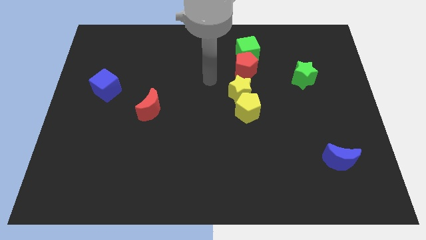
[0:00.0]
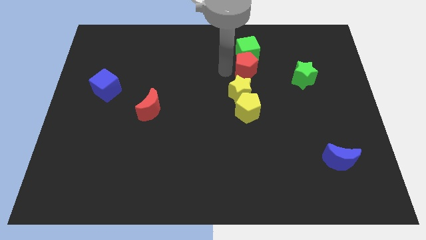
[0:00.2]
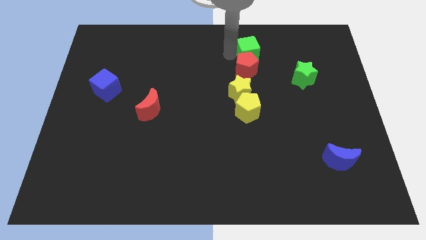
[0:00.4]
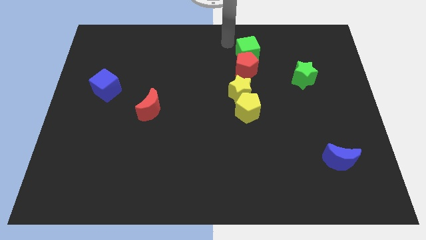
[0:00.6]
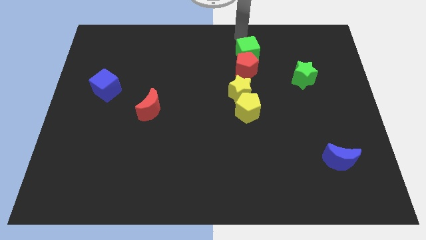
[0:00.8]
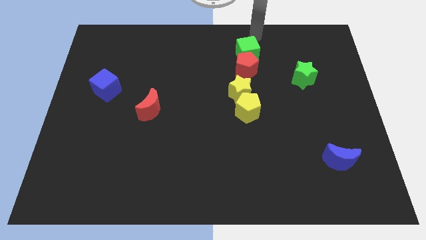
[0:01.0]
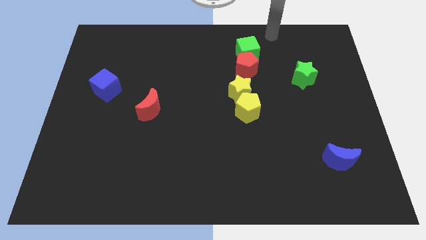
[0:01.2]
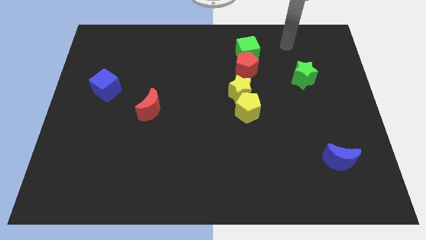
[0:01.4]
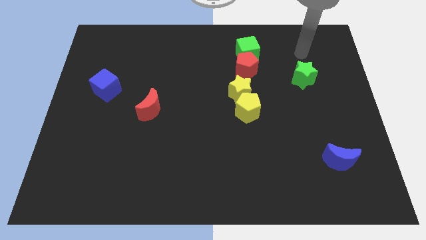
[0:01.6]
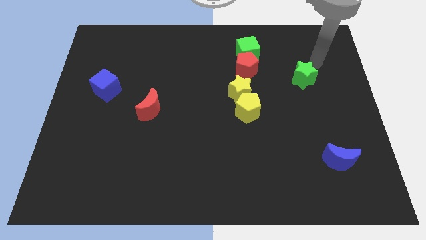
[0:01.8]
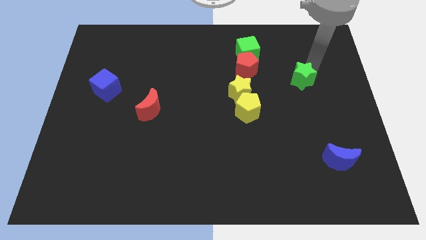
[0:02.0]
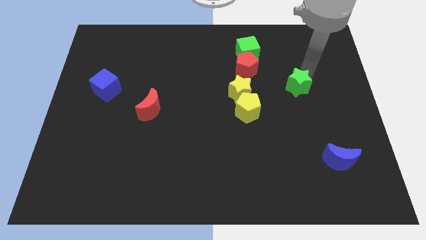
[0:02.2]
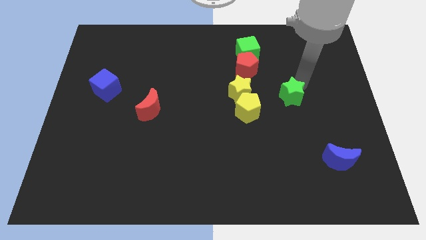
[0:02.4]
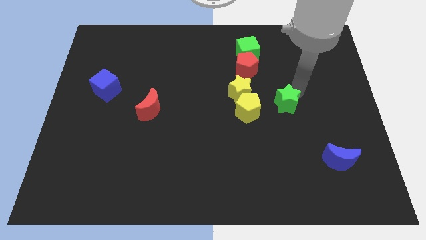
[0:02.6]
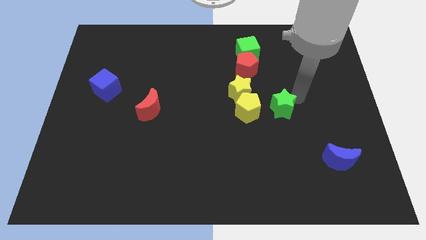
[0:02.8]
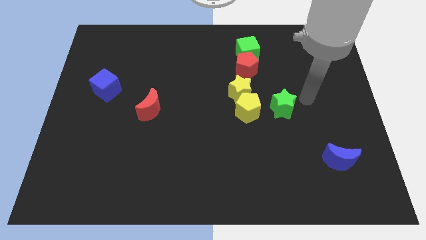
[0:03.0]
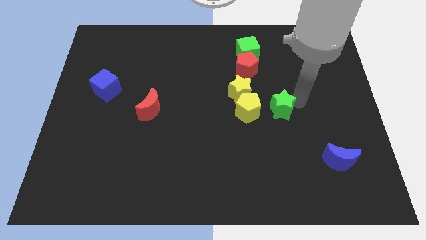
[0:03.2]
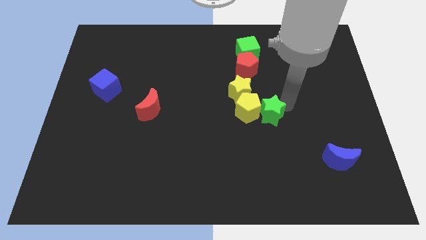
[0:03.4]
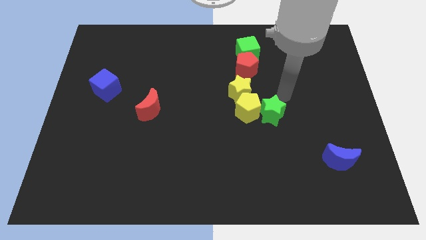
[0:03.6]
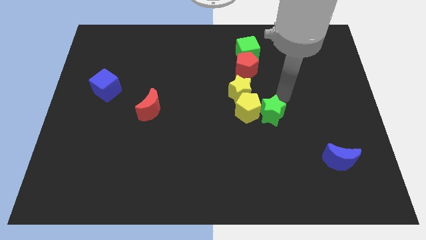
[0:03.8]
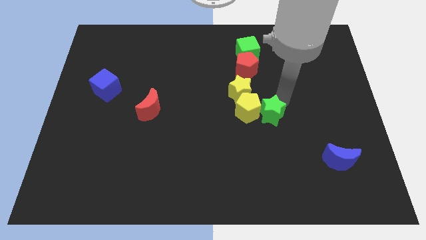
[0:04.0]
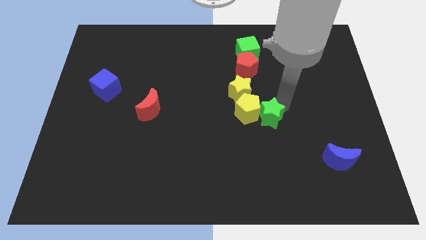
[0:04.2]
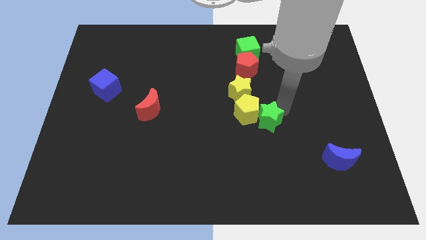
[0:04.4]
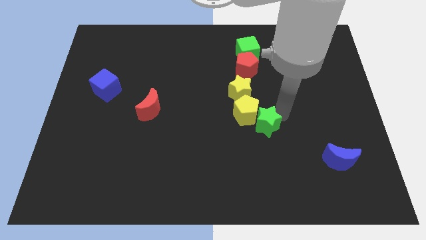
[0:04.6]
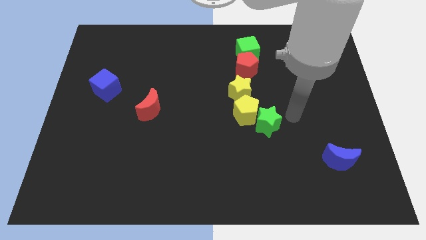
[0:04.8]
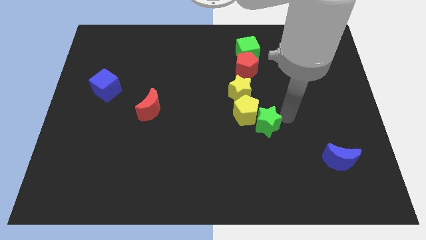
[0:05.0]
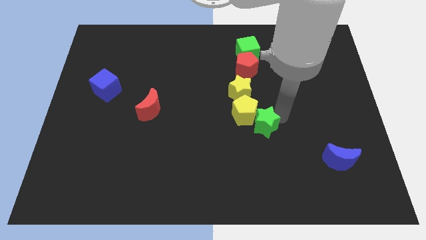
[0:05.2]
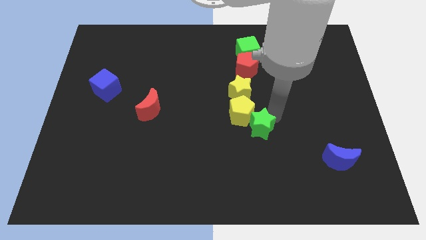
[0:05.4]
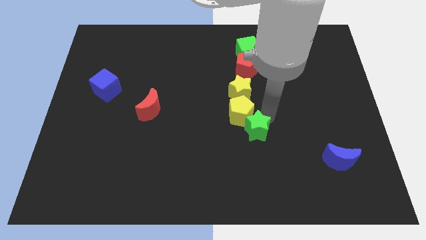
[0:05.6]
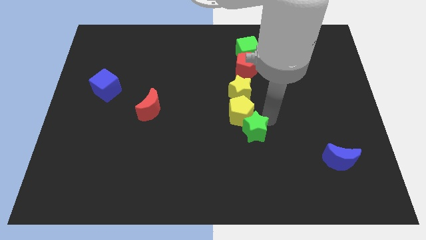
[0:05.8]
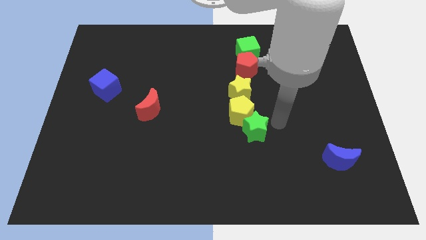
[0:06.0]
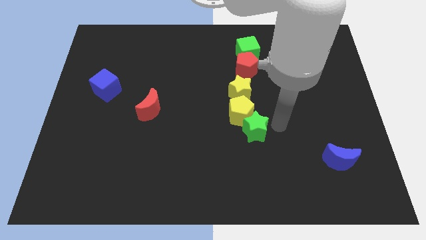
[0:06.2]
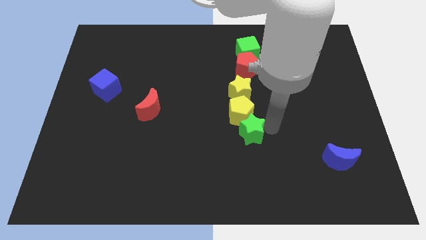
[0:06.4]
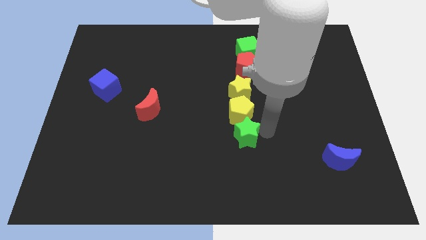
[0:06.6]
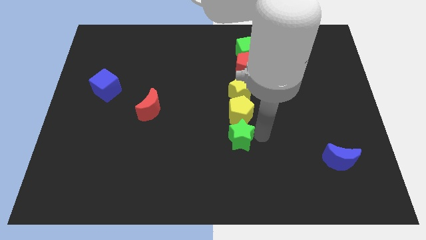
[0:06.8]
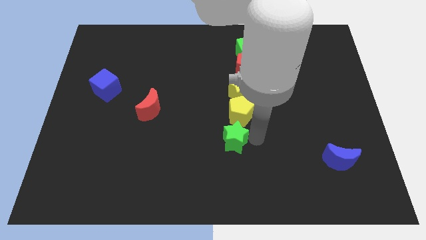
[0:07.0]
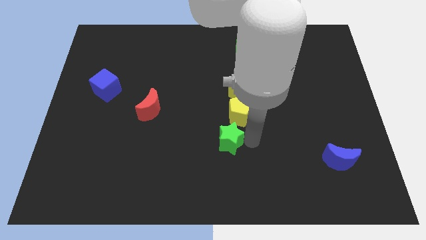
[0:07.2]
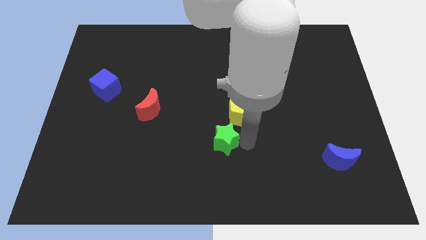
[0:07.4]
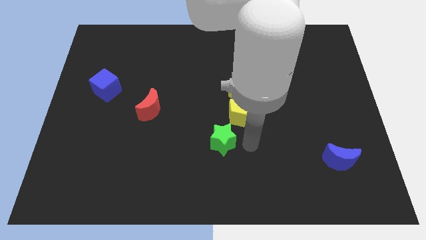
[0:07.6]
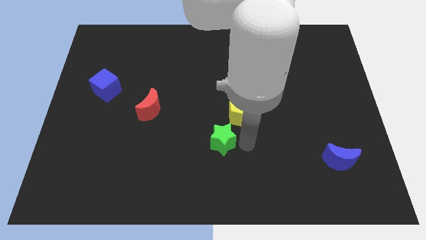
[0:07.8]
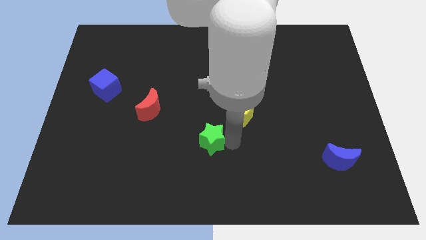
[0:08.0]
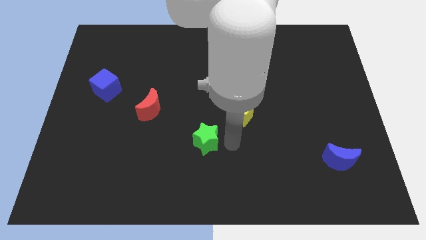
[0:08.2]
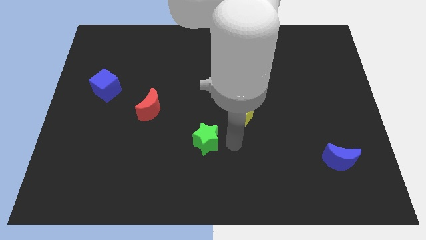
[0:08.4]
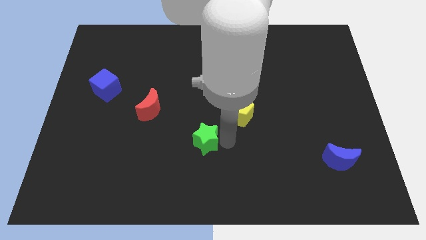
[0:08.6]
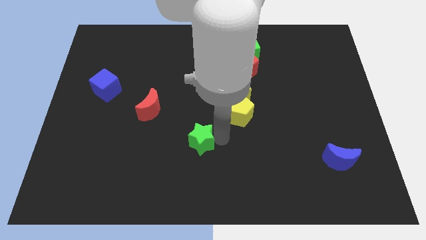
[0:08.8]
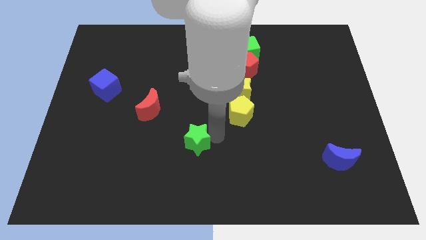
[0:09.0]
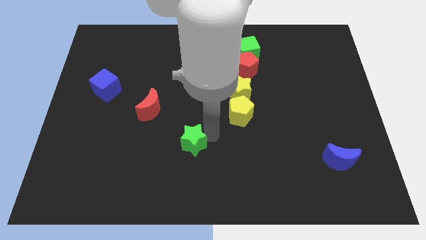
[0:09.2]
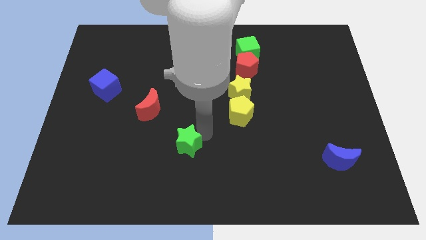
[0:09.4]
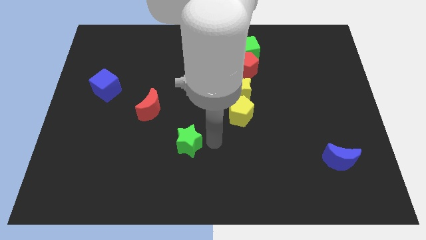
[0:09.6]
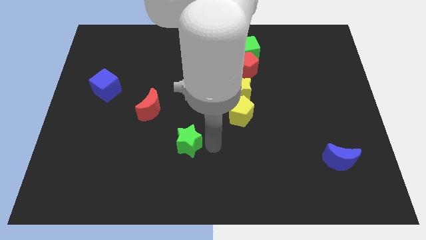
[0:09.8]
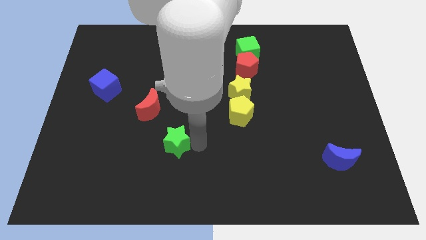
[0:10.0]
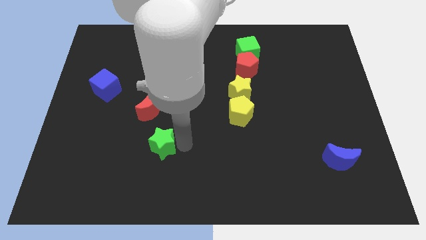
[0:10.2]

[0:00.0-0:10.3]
slide the green star below the red moon

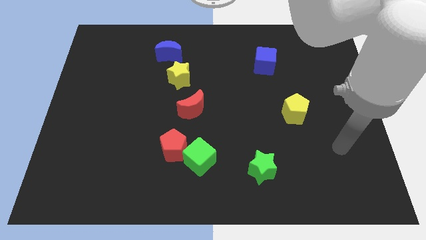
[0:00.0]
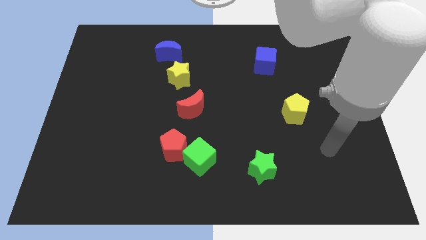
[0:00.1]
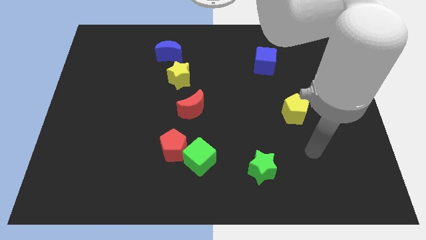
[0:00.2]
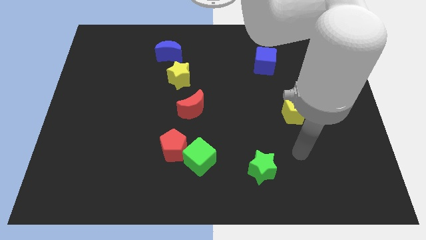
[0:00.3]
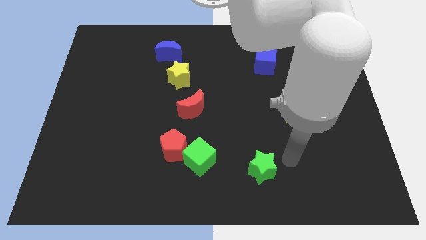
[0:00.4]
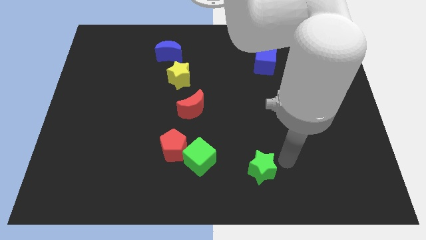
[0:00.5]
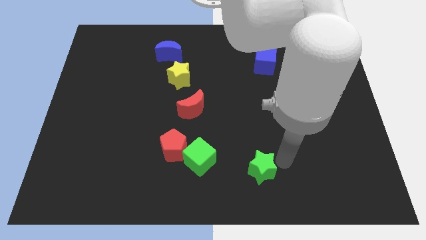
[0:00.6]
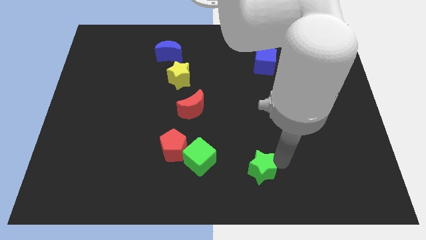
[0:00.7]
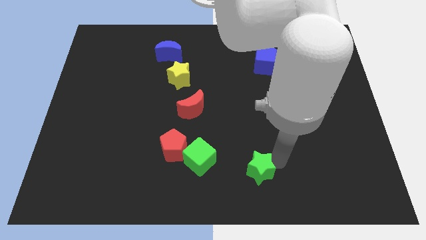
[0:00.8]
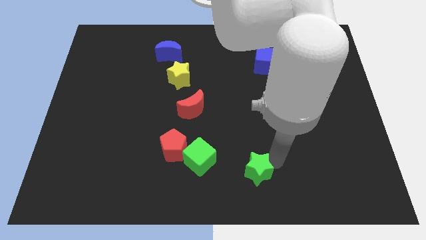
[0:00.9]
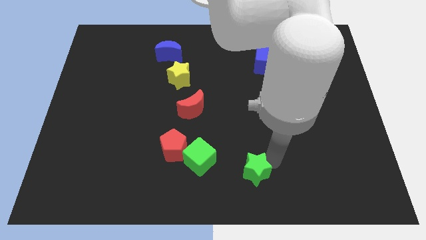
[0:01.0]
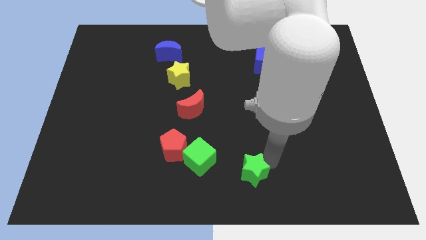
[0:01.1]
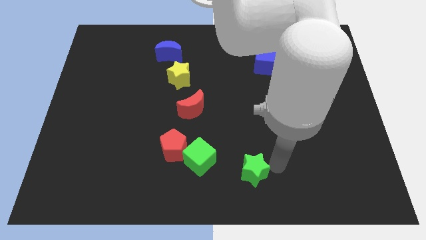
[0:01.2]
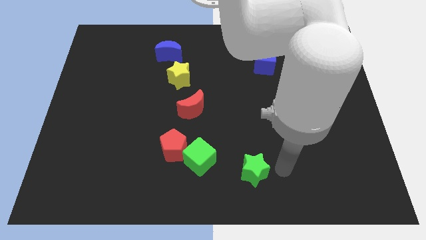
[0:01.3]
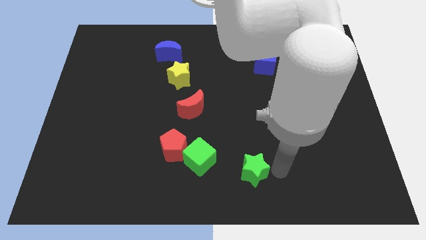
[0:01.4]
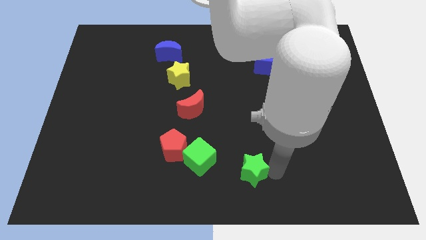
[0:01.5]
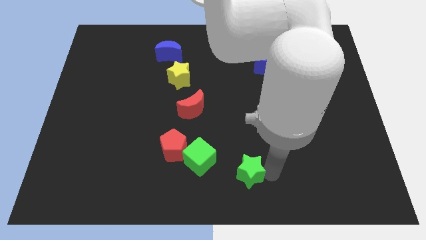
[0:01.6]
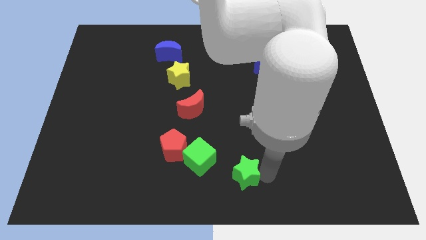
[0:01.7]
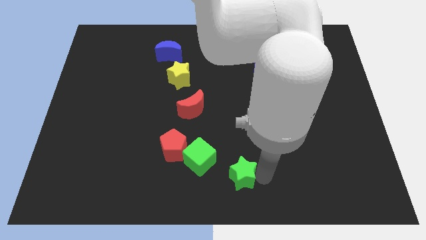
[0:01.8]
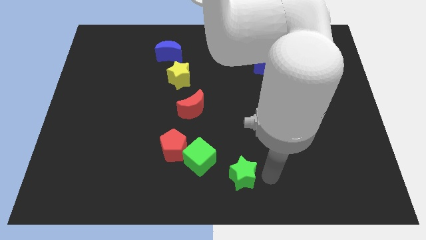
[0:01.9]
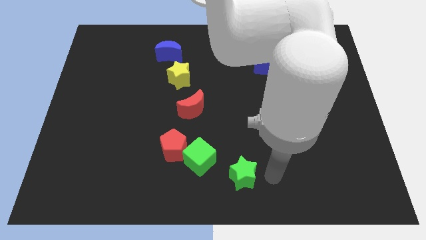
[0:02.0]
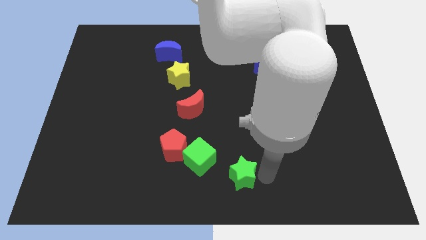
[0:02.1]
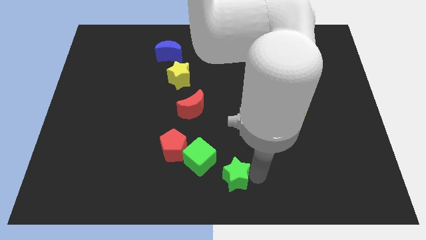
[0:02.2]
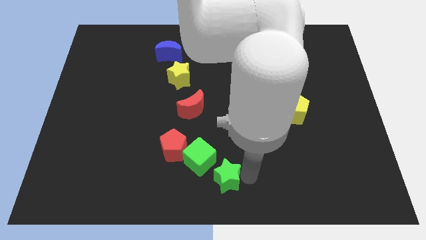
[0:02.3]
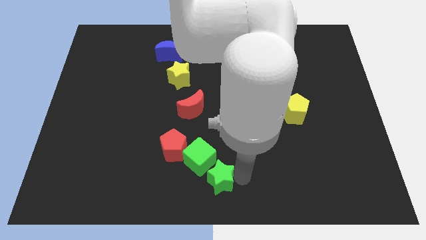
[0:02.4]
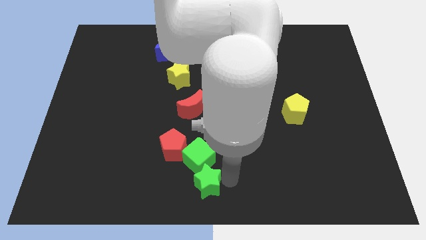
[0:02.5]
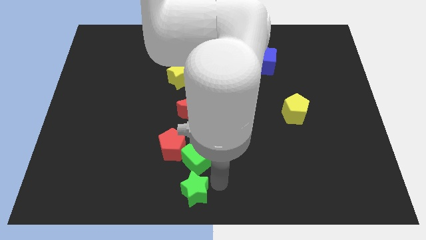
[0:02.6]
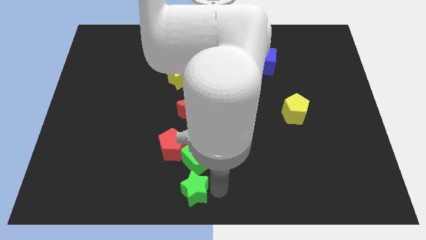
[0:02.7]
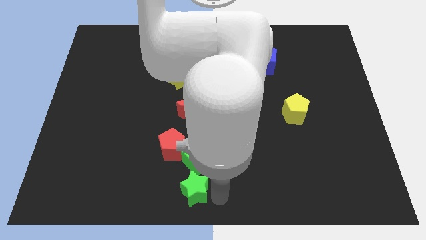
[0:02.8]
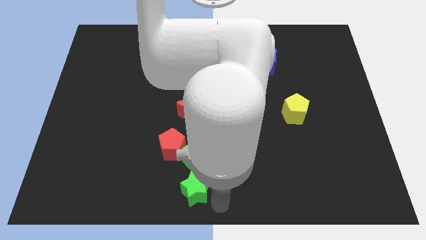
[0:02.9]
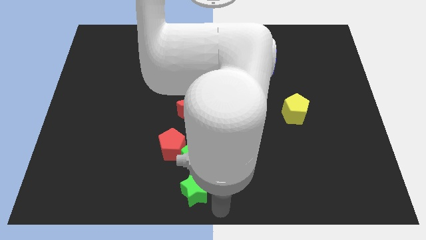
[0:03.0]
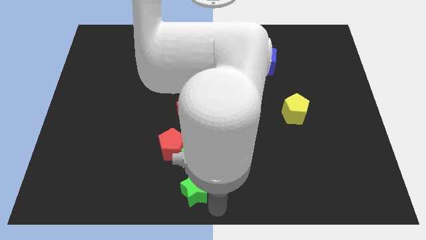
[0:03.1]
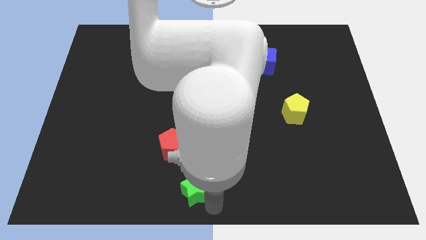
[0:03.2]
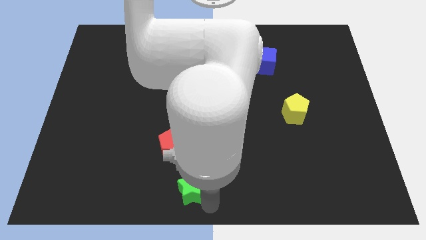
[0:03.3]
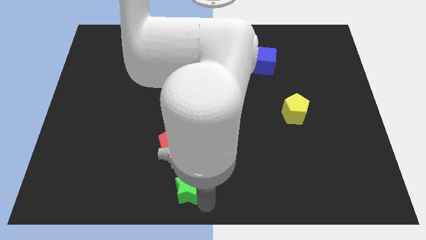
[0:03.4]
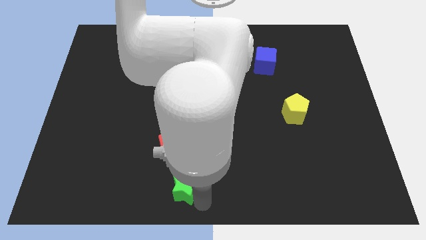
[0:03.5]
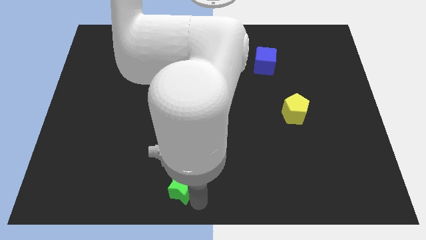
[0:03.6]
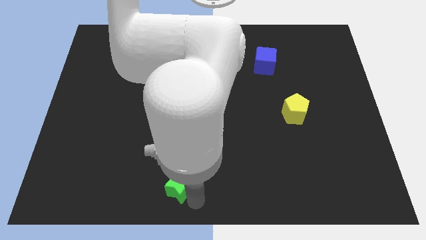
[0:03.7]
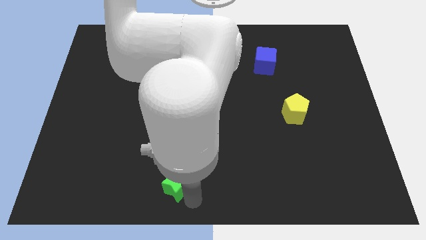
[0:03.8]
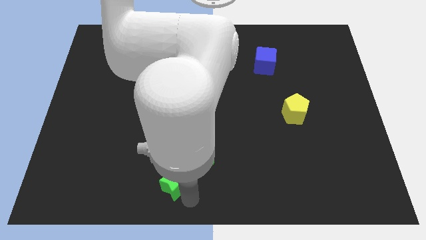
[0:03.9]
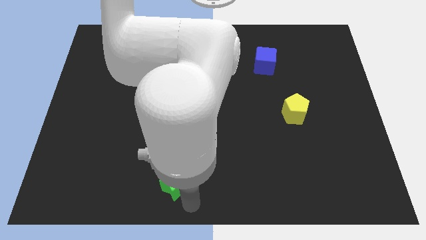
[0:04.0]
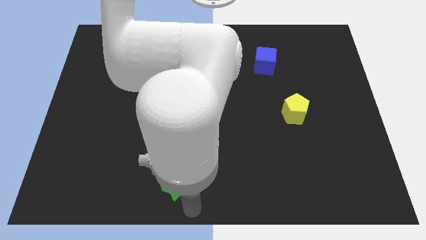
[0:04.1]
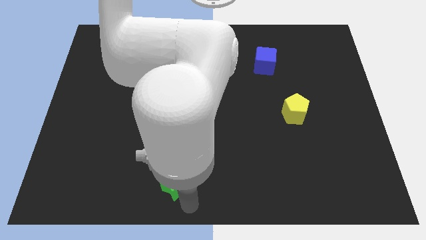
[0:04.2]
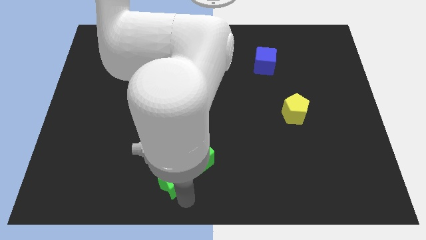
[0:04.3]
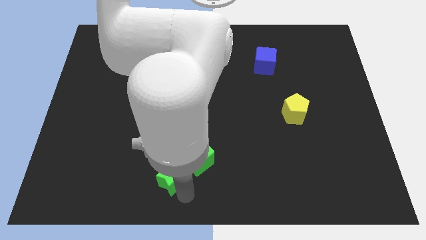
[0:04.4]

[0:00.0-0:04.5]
push the green star left of the green cube
